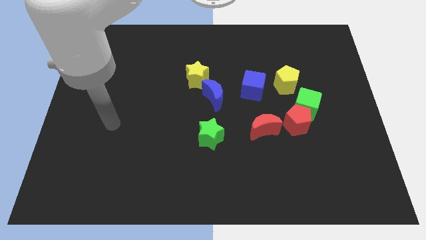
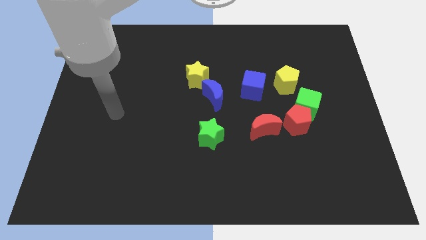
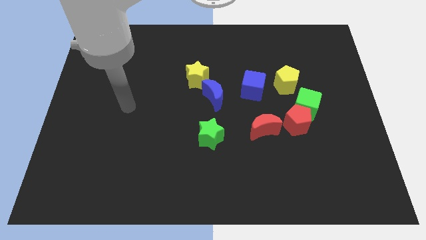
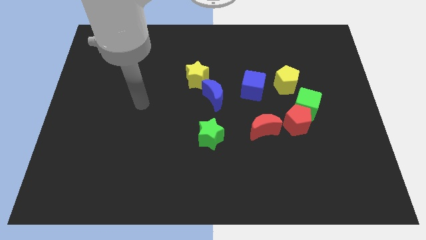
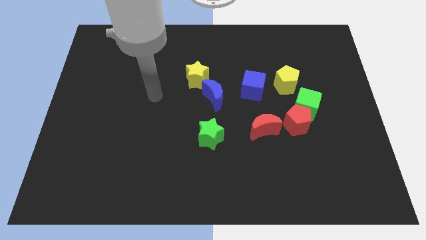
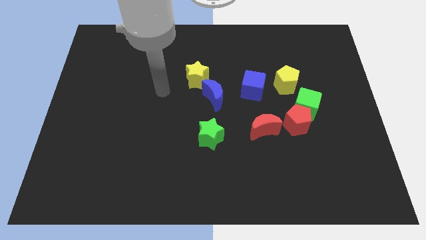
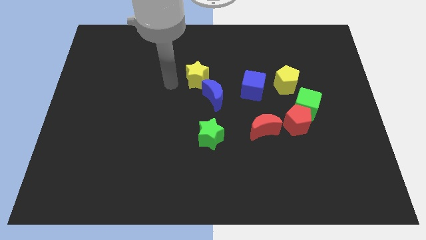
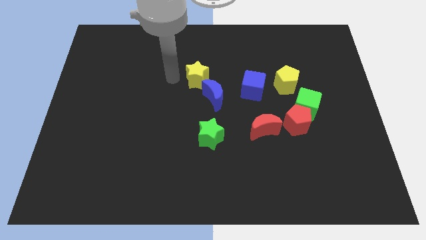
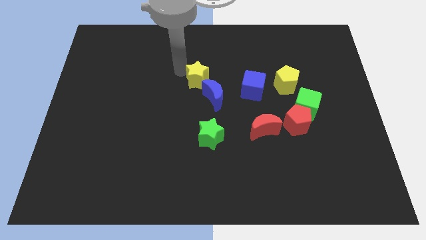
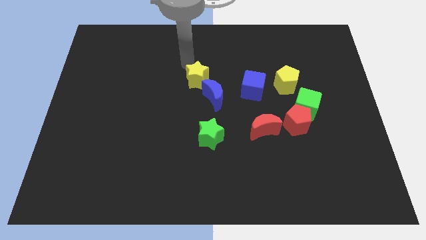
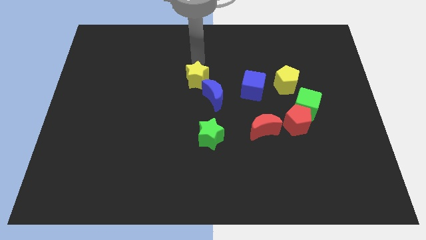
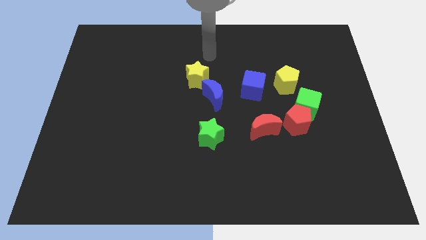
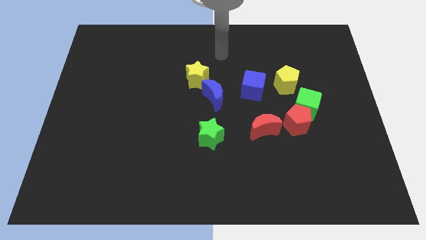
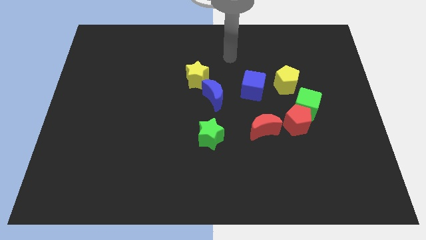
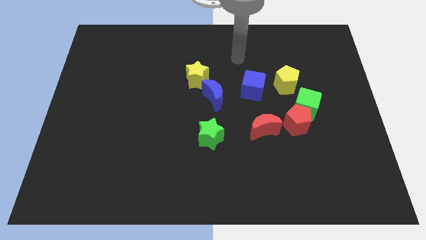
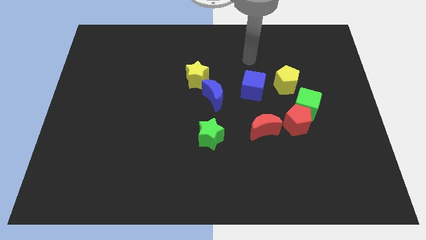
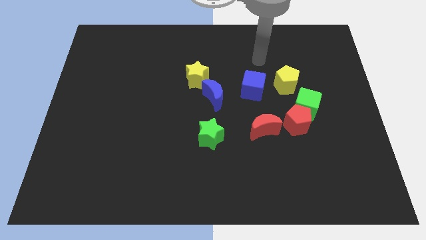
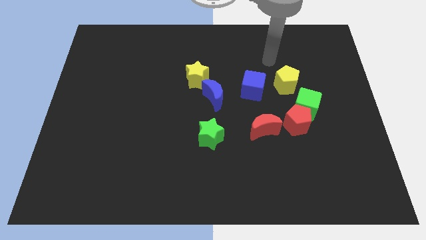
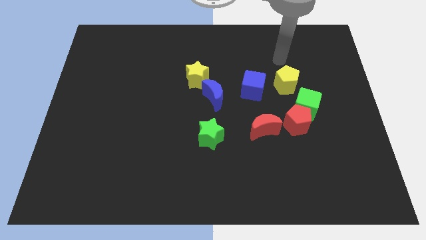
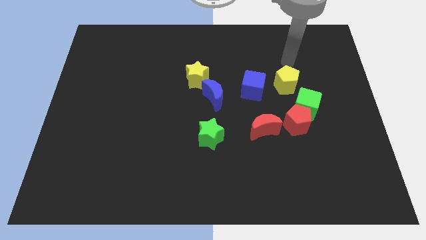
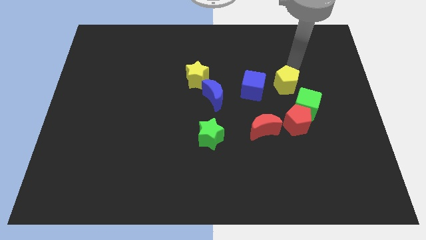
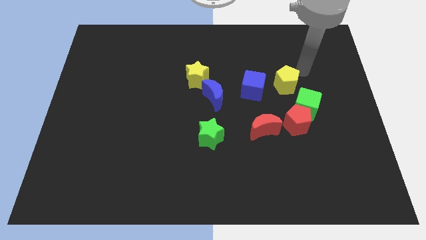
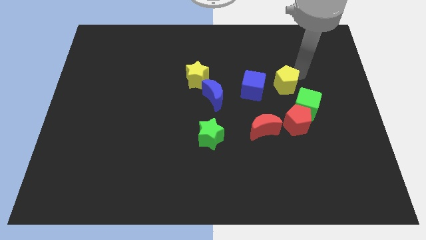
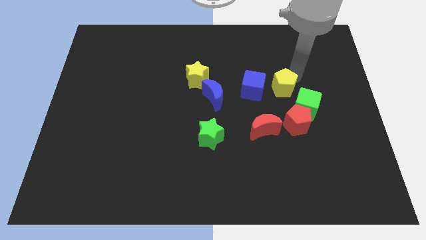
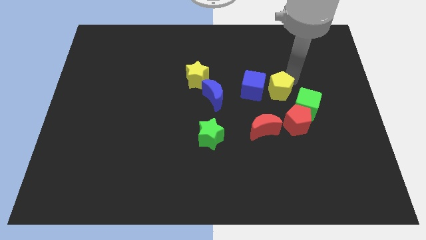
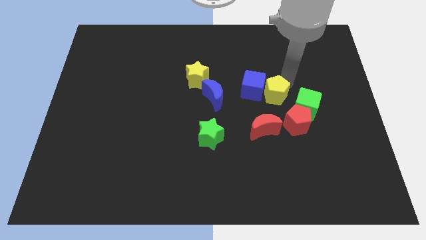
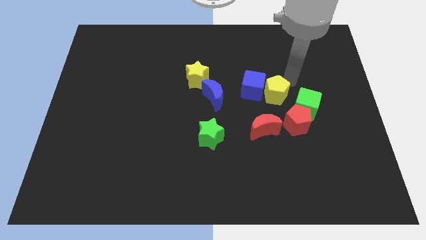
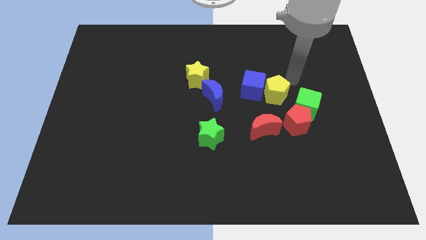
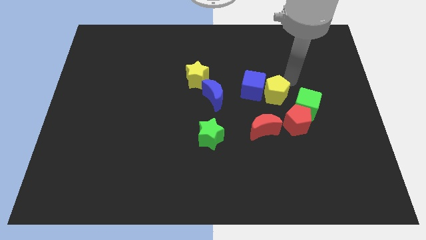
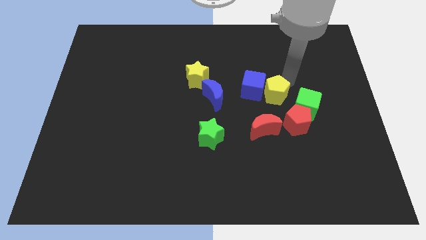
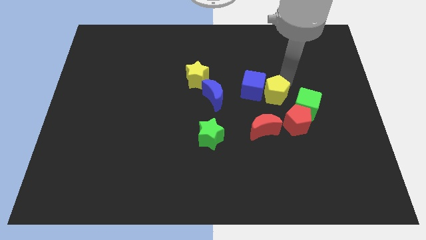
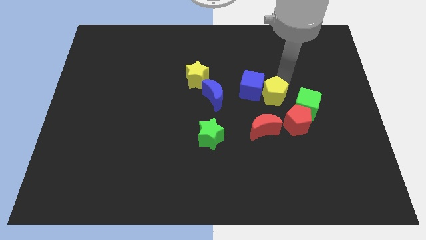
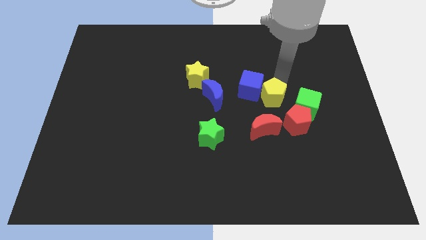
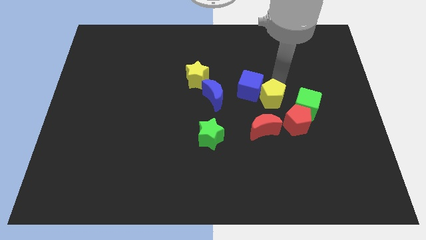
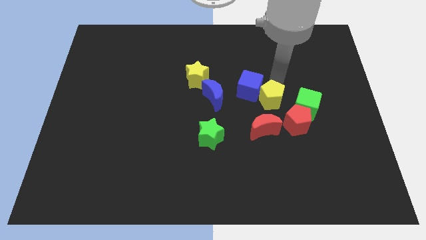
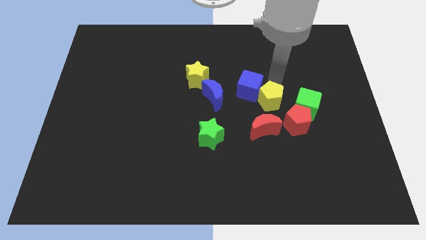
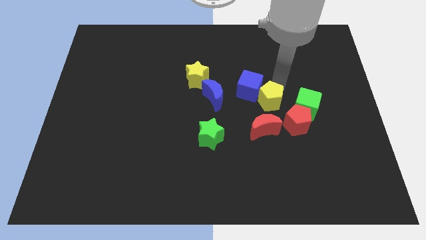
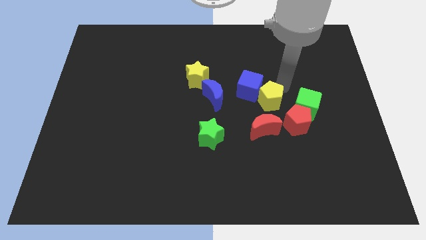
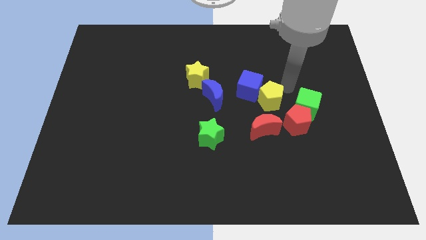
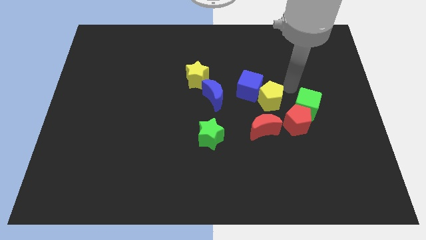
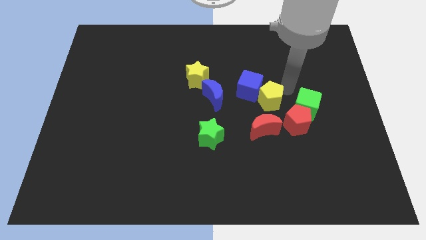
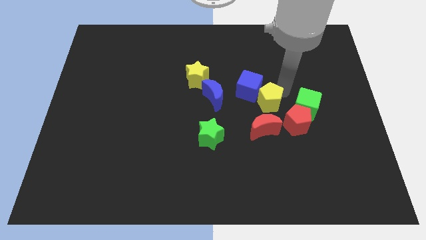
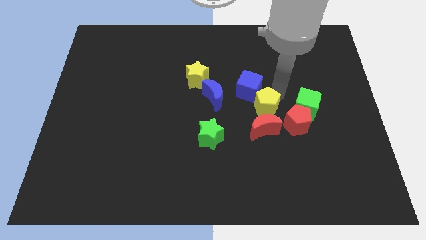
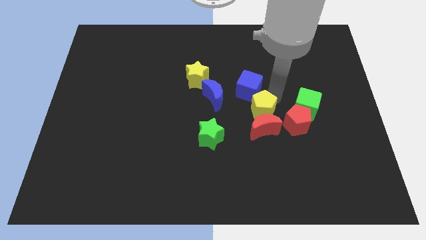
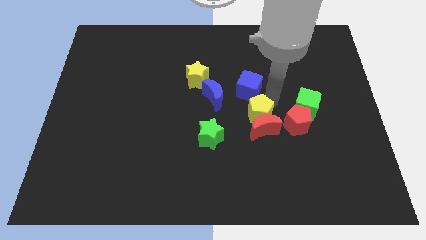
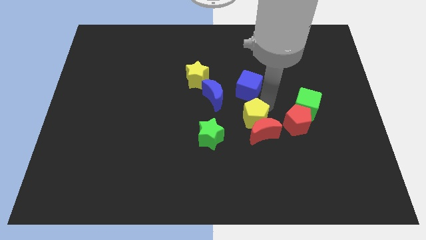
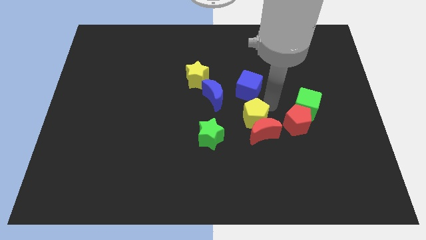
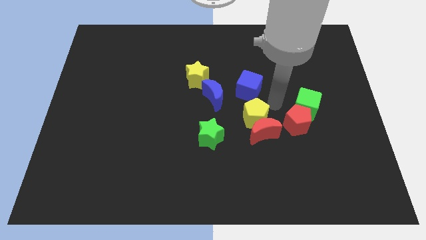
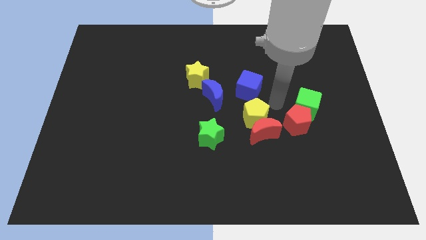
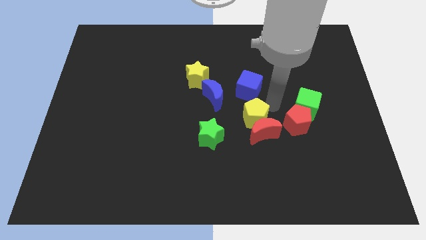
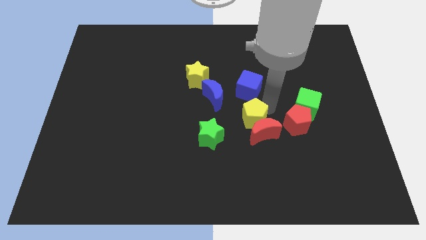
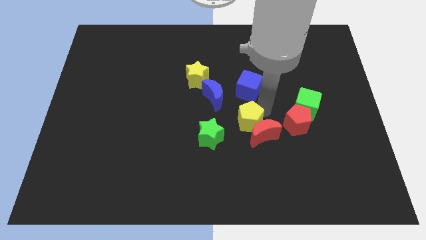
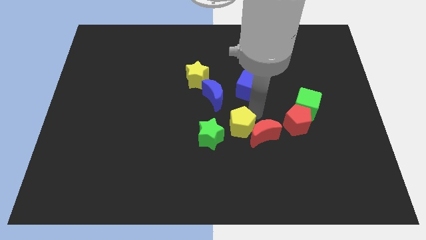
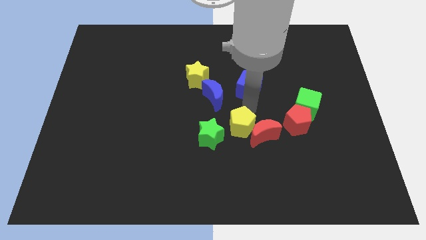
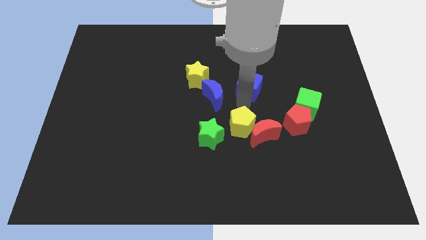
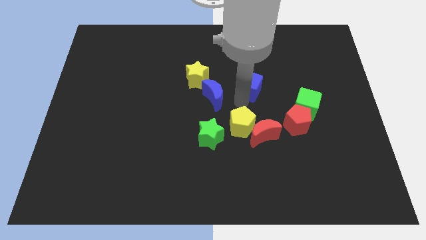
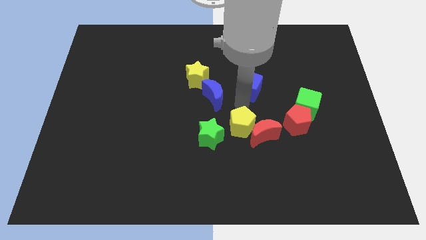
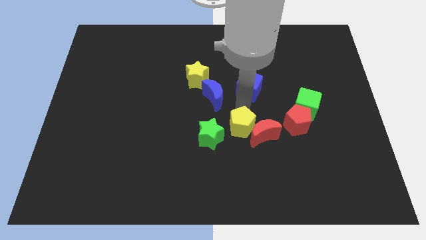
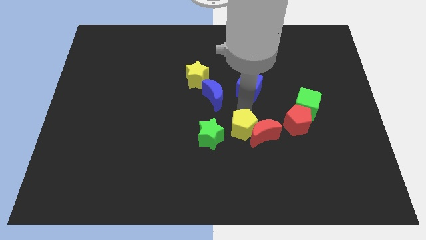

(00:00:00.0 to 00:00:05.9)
push the yellow pentagon to the bottom left side of the red moon

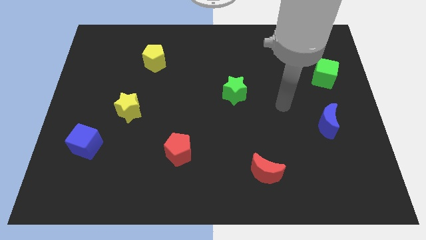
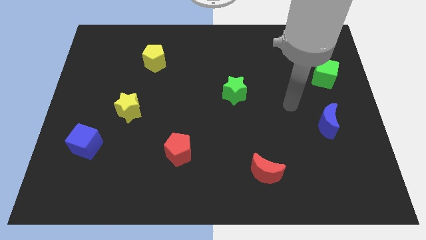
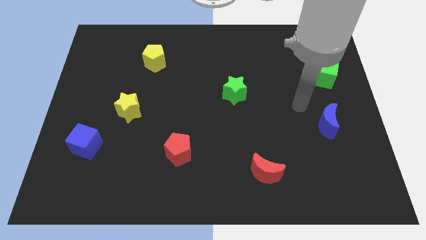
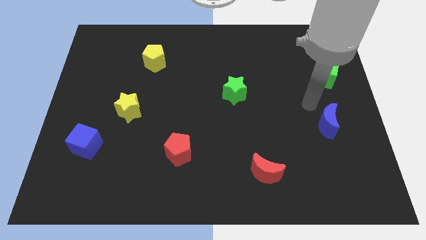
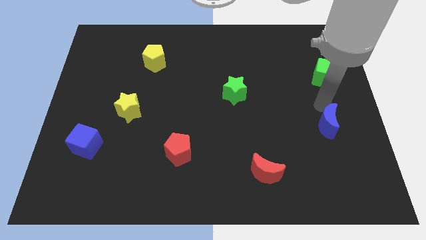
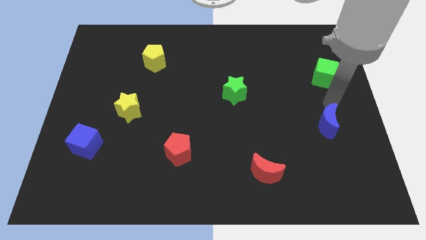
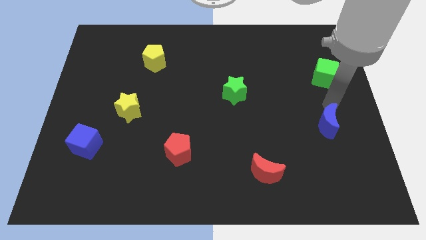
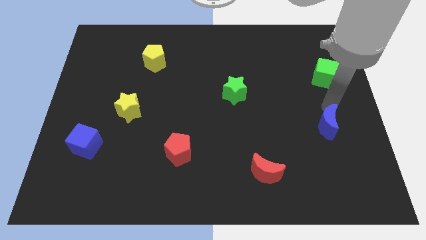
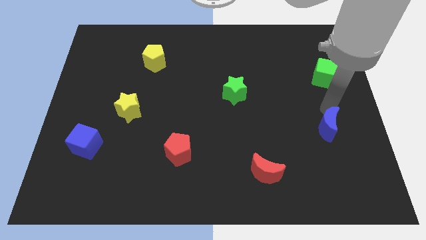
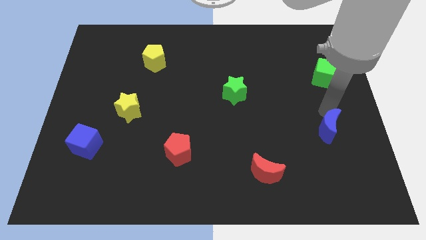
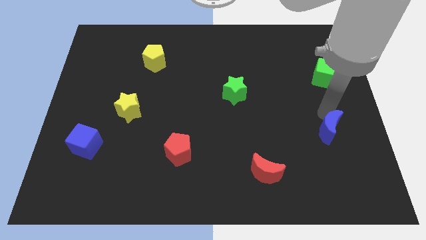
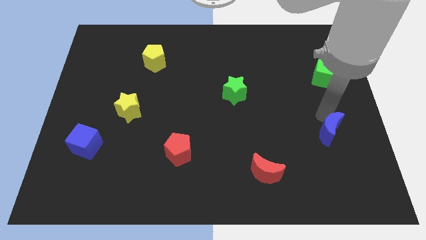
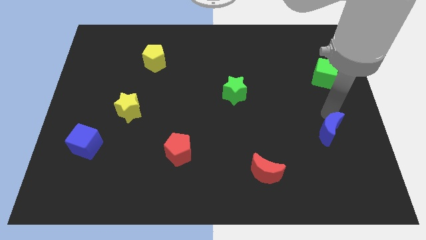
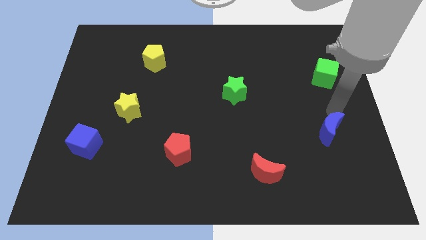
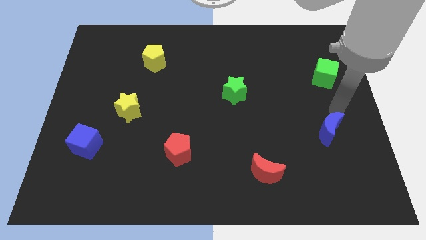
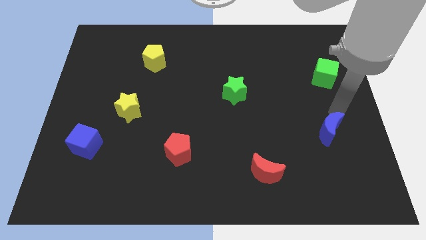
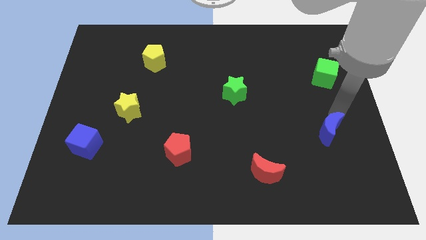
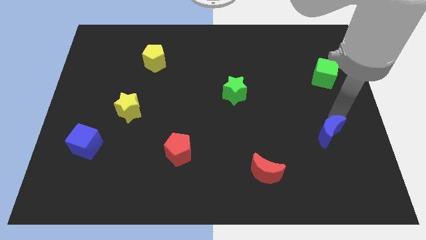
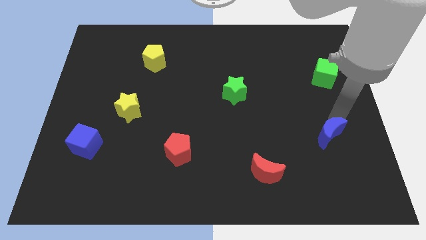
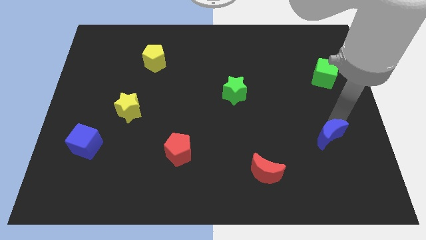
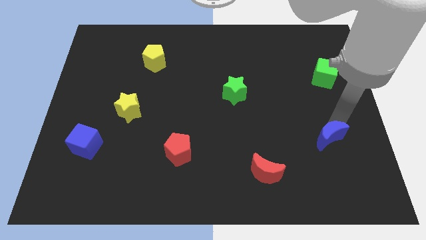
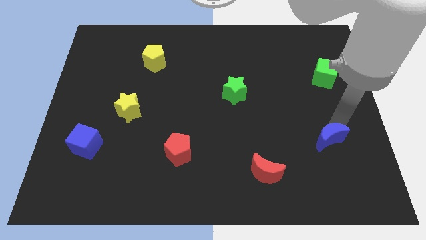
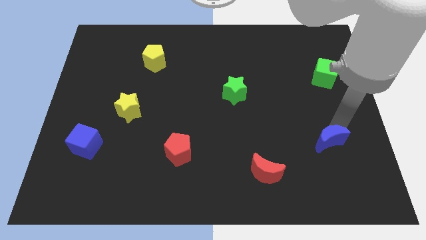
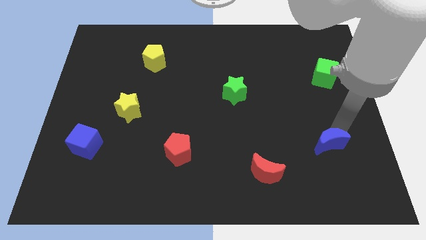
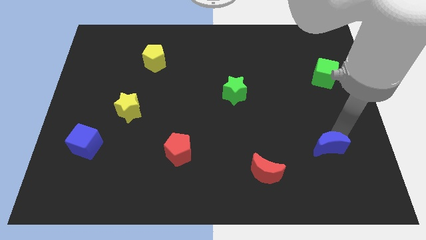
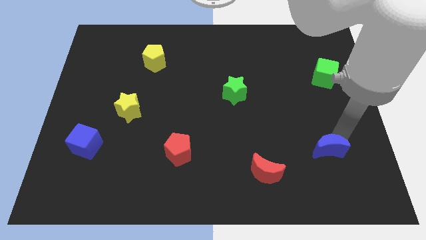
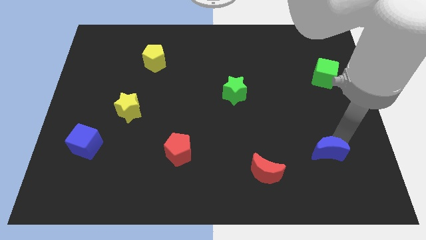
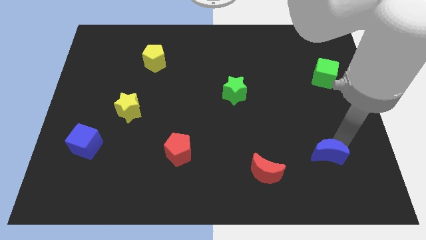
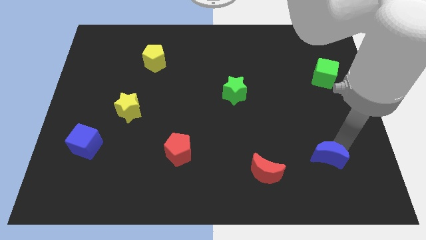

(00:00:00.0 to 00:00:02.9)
slide the blue moon to the right of the red moon
